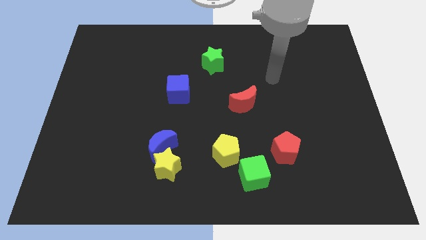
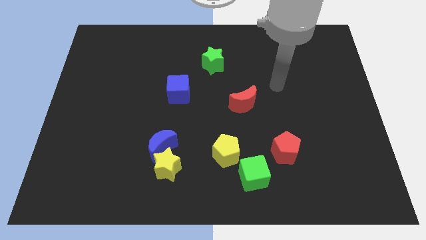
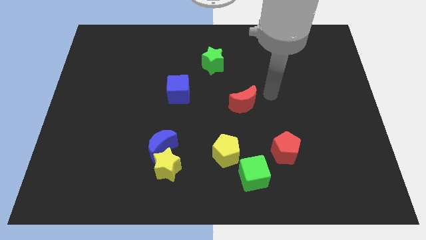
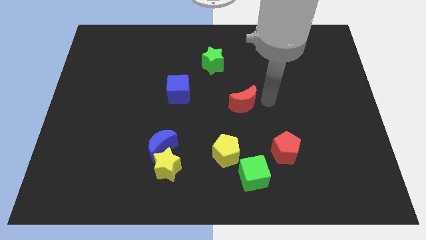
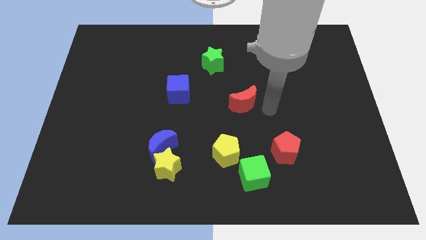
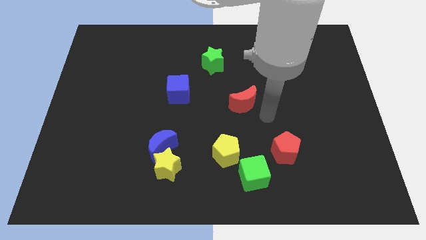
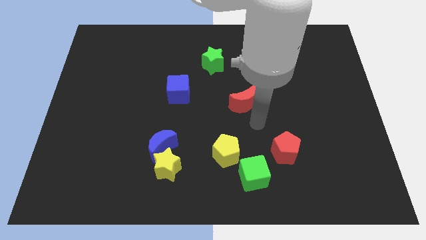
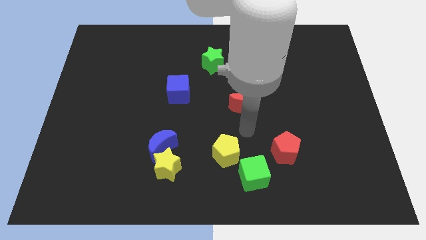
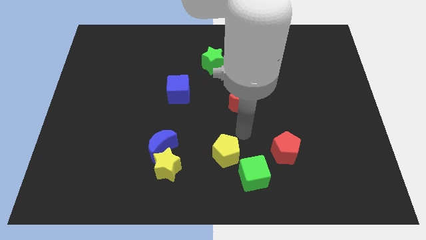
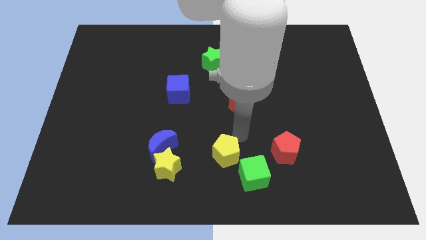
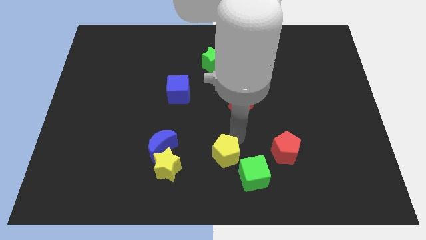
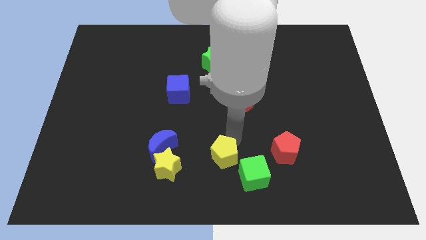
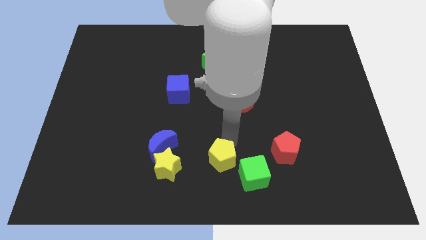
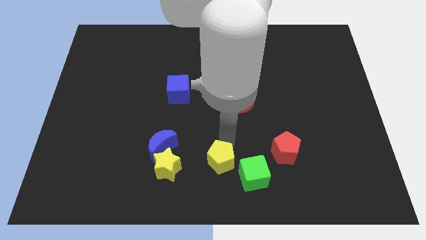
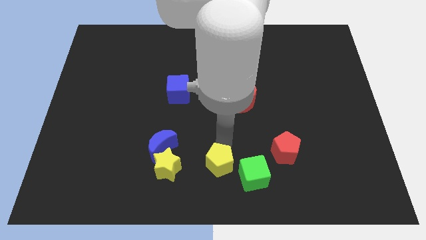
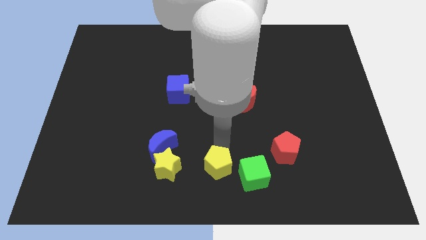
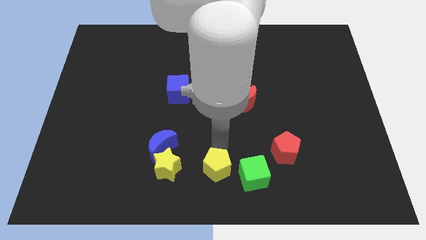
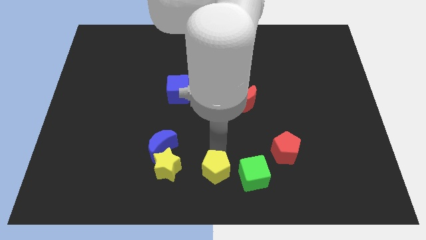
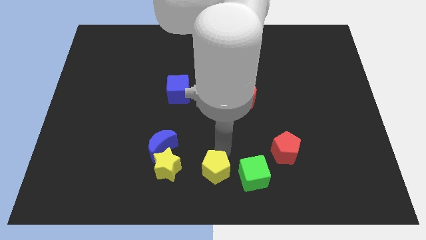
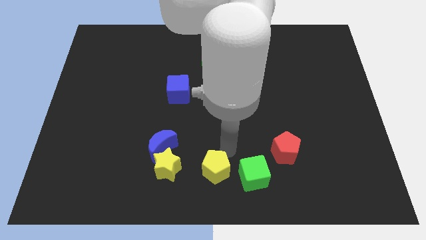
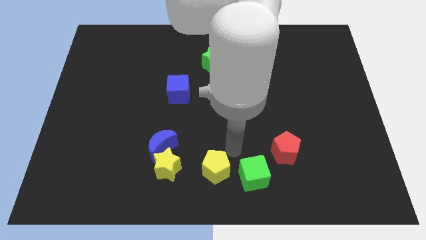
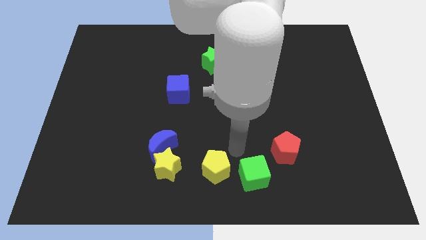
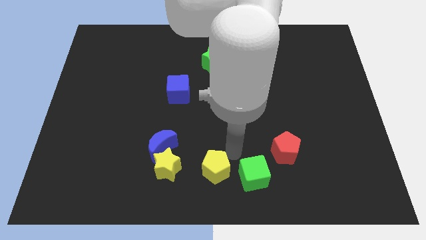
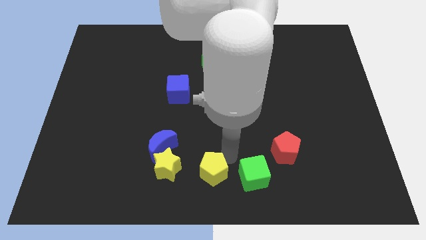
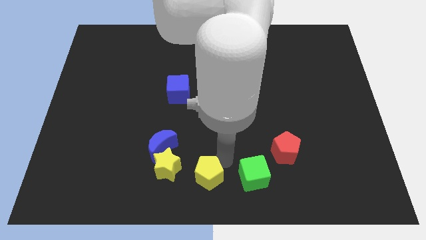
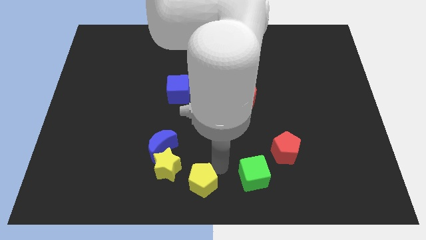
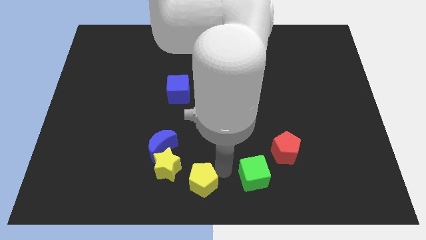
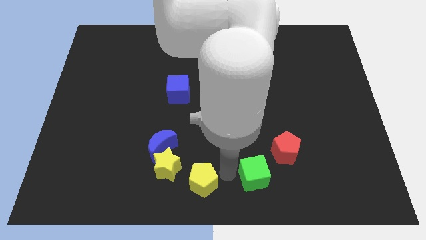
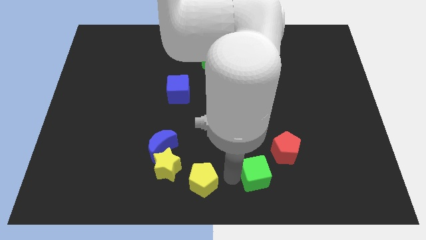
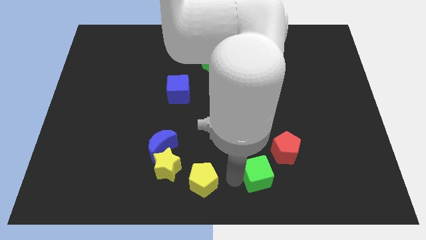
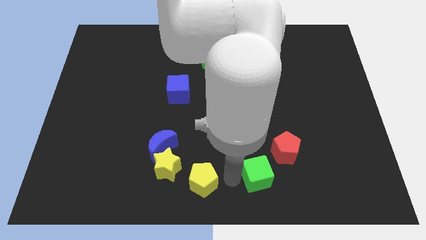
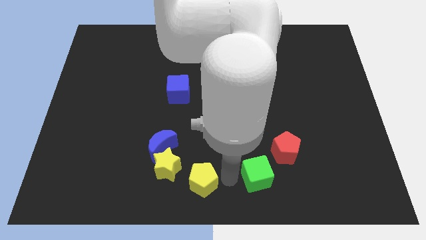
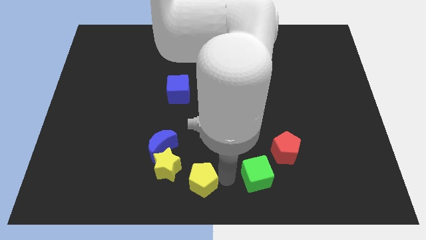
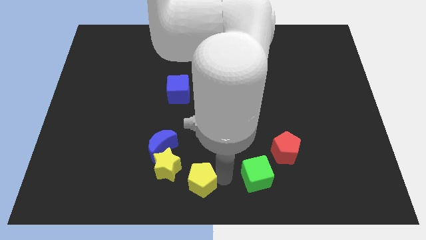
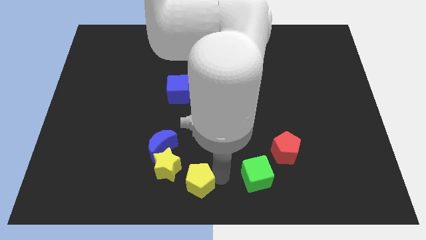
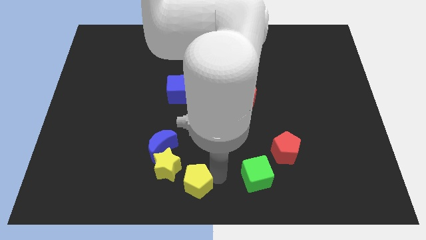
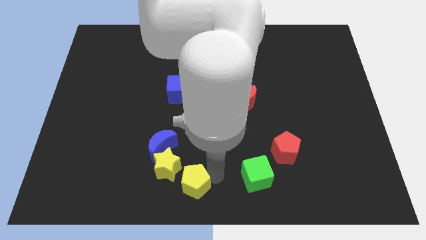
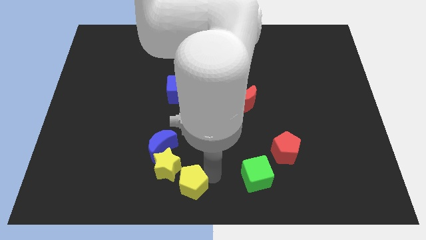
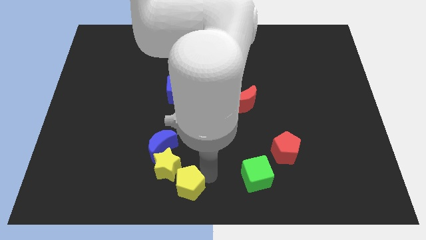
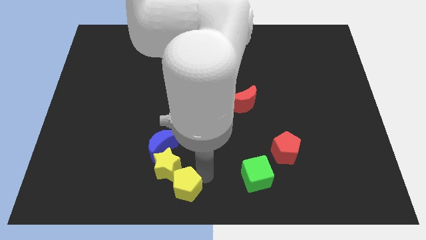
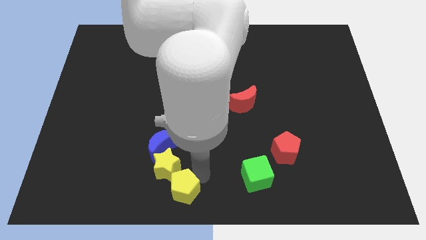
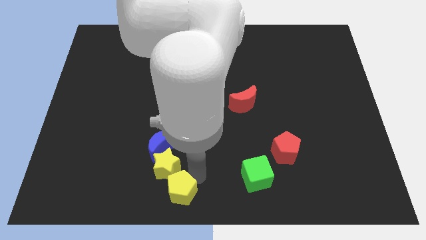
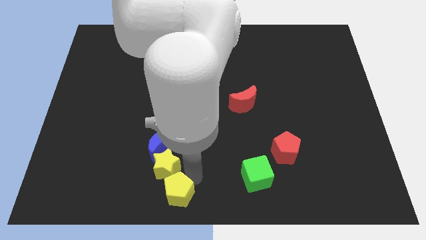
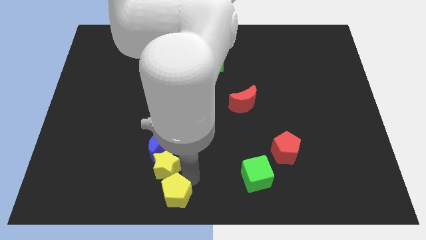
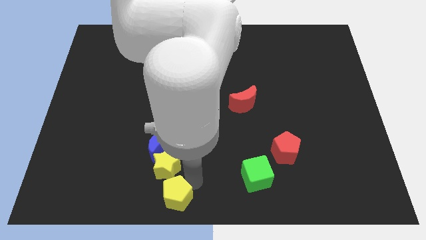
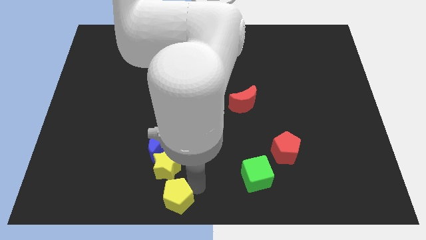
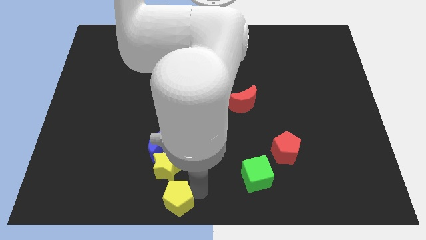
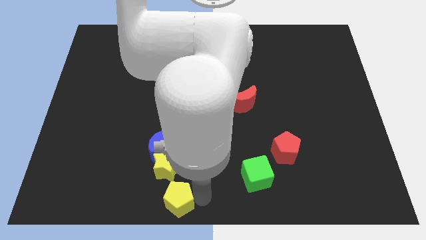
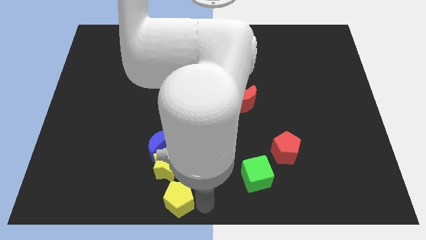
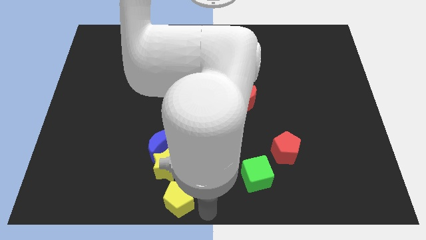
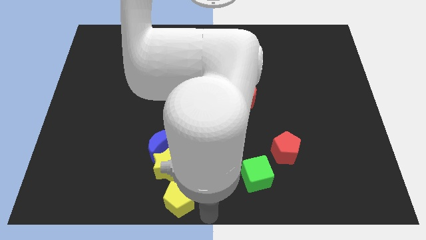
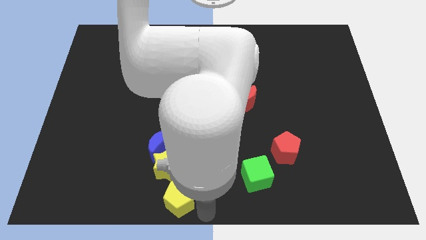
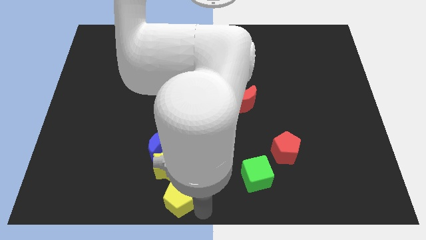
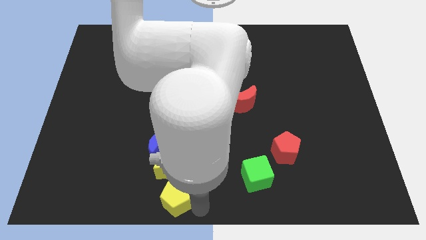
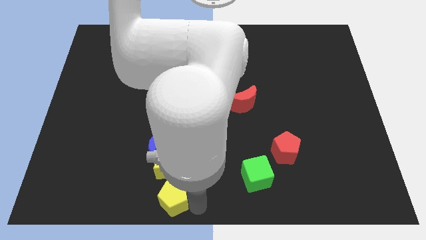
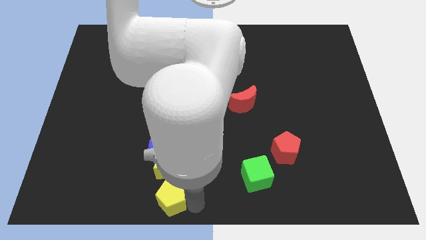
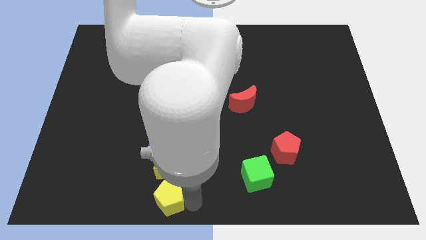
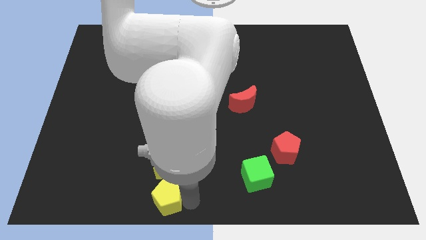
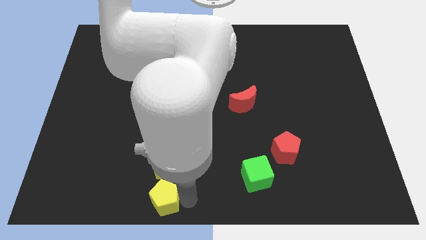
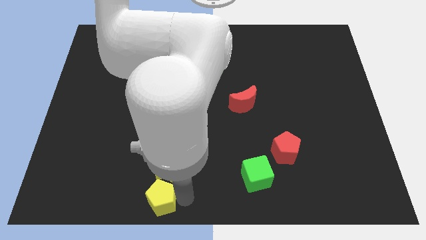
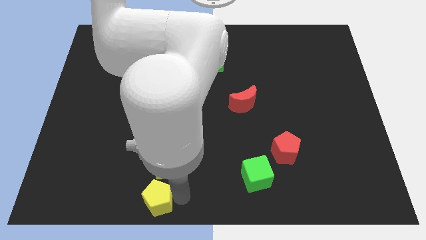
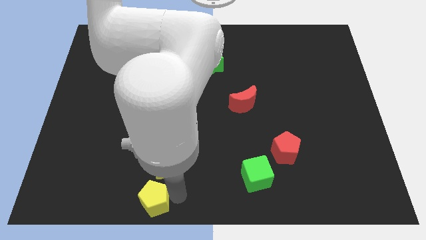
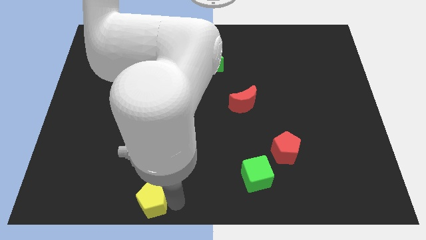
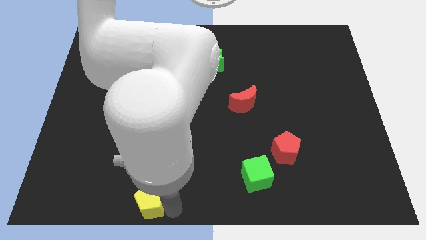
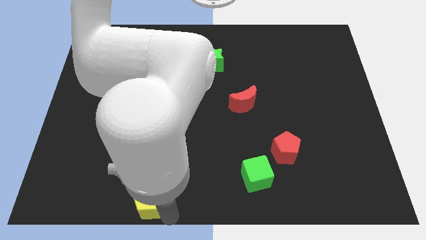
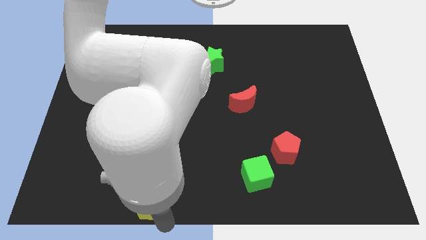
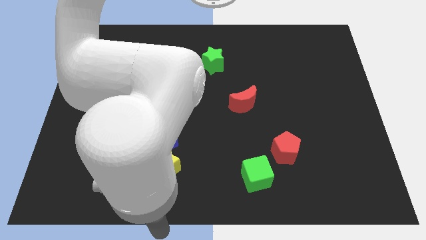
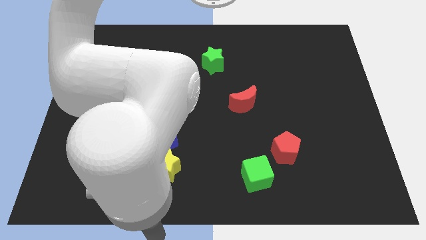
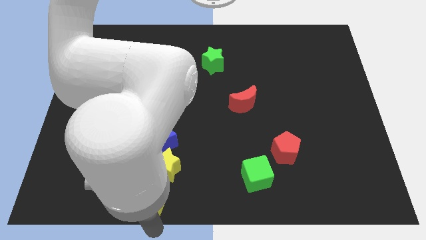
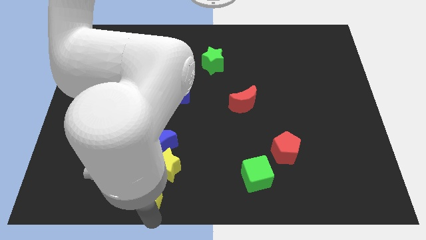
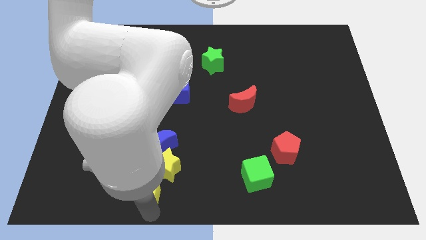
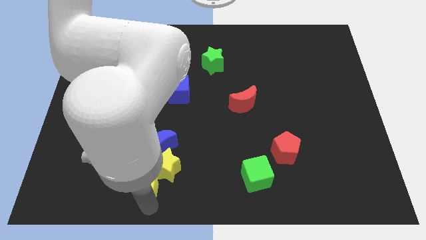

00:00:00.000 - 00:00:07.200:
slide the yellow pentagon just left of the yellow star

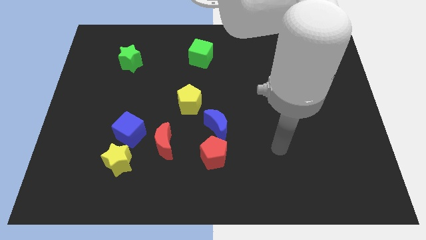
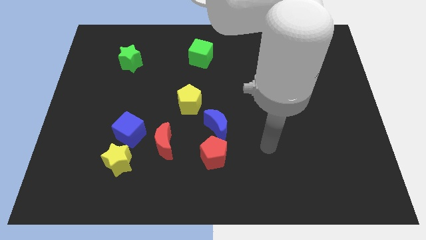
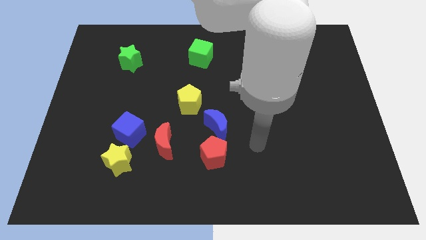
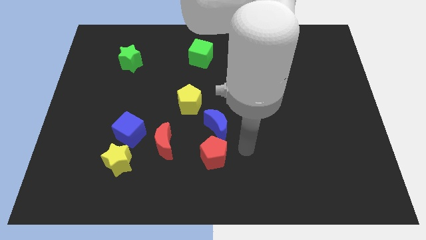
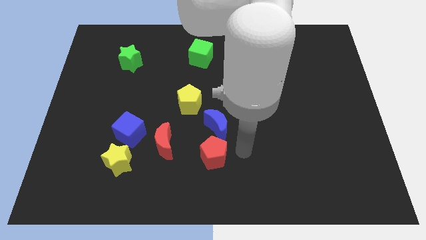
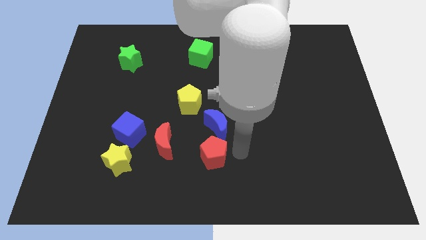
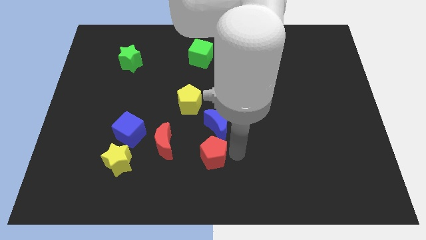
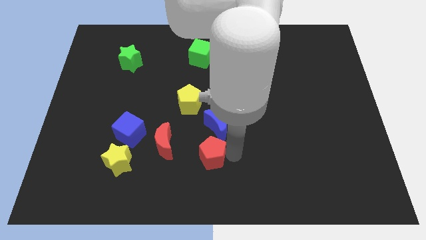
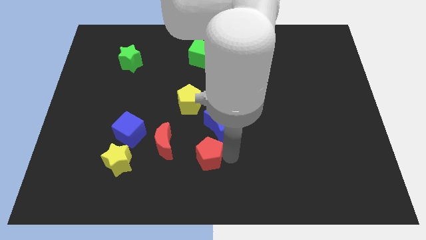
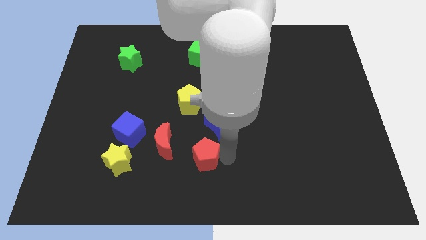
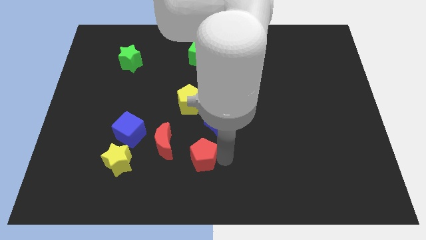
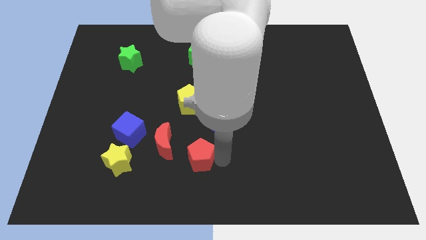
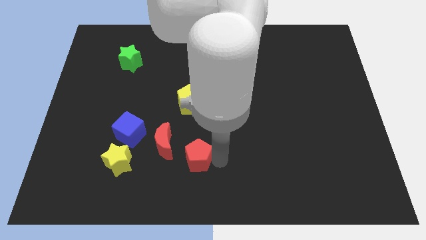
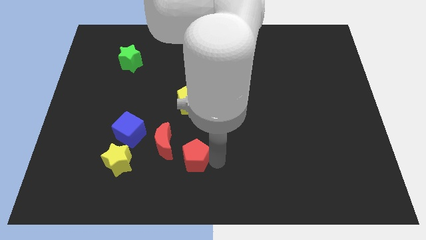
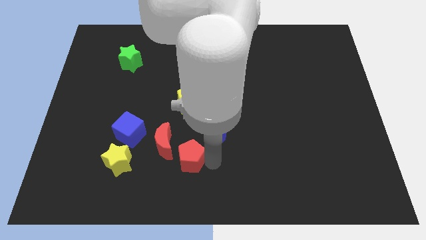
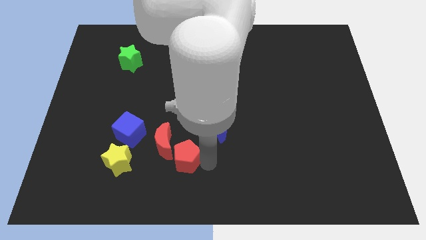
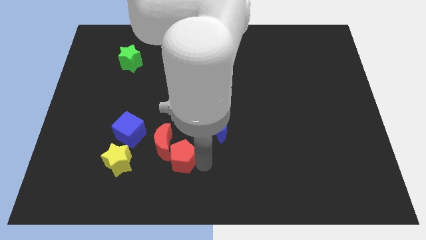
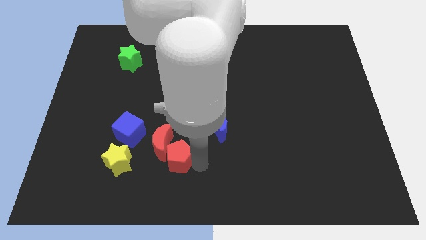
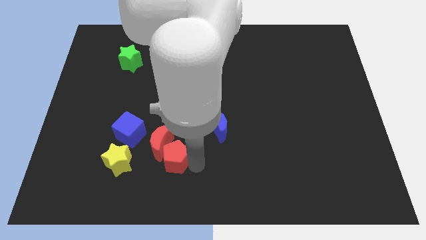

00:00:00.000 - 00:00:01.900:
put the red pentagon to the bottom right side of the blue cube
